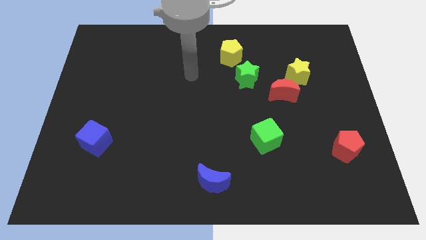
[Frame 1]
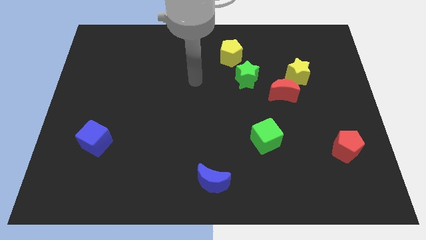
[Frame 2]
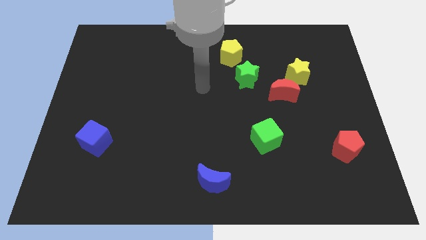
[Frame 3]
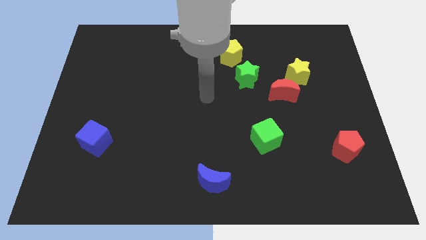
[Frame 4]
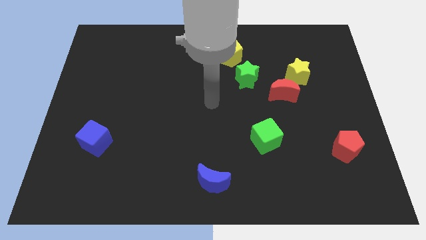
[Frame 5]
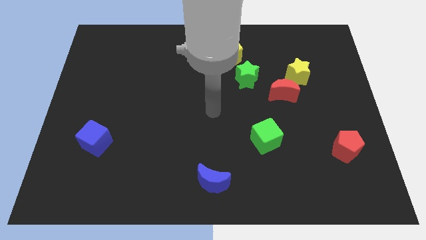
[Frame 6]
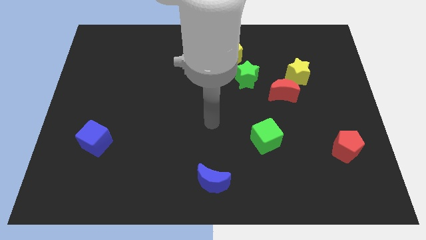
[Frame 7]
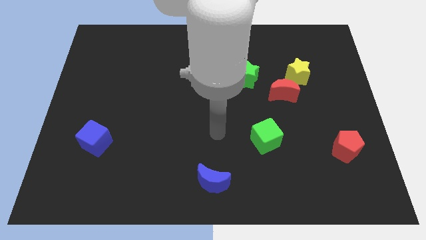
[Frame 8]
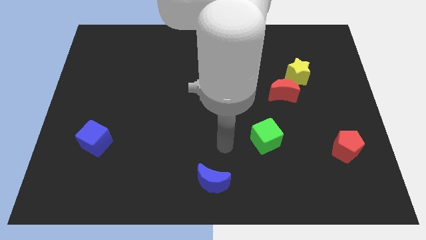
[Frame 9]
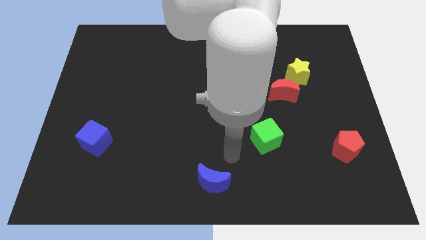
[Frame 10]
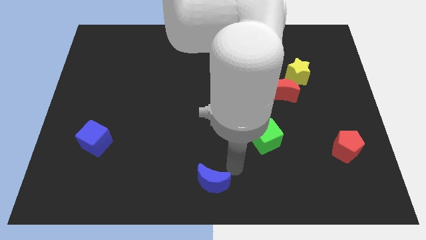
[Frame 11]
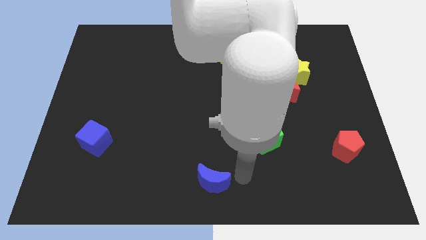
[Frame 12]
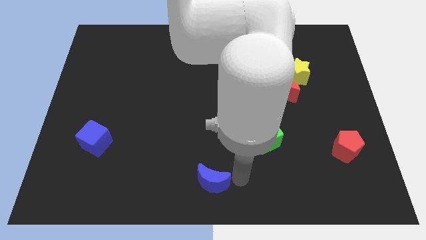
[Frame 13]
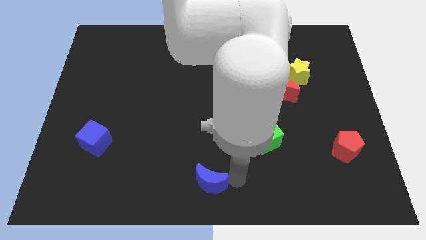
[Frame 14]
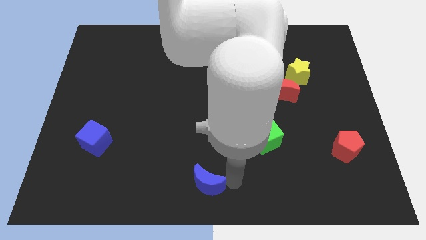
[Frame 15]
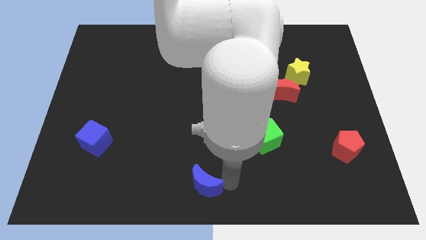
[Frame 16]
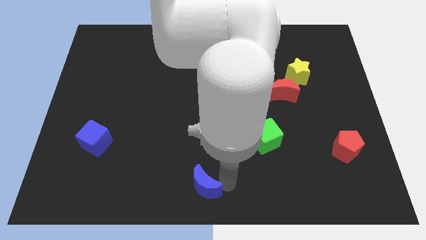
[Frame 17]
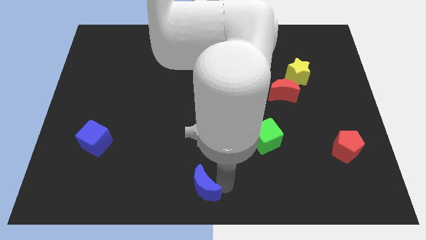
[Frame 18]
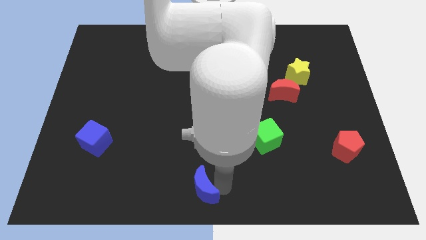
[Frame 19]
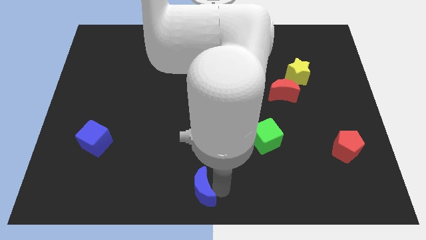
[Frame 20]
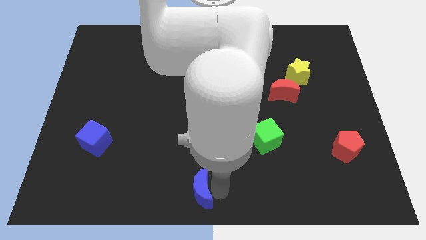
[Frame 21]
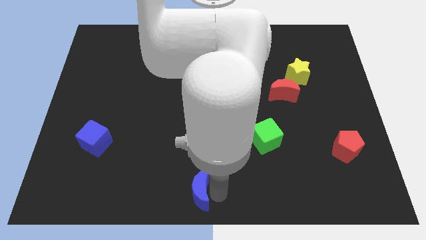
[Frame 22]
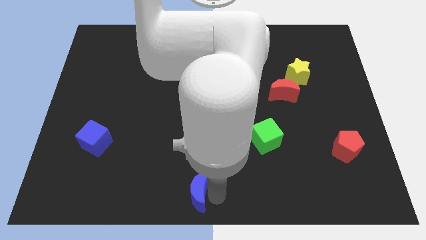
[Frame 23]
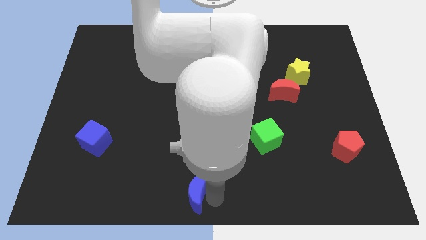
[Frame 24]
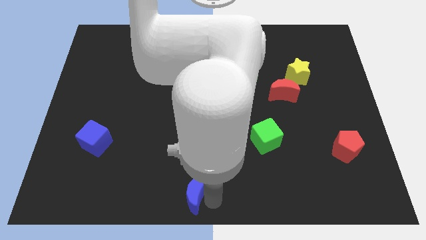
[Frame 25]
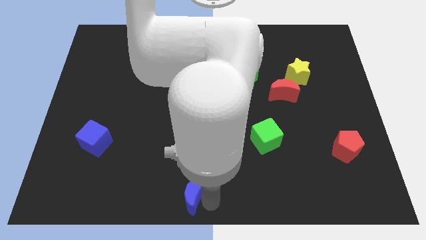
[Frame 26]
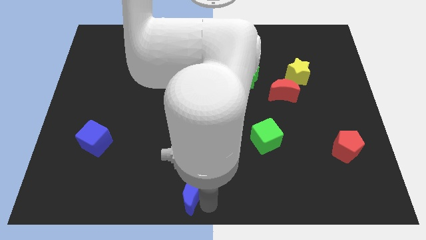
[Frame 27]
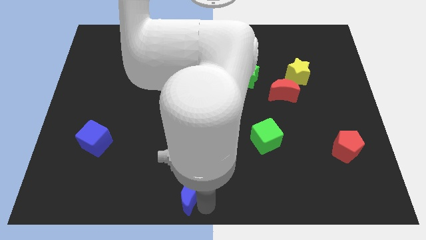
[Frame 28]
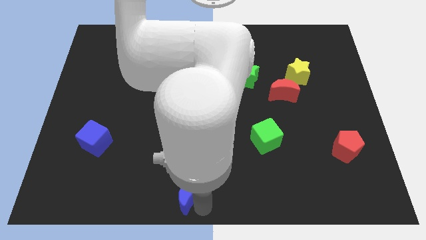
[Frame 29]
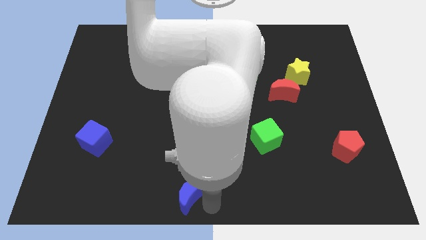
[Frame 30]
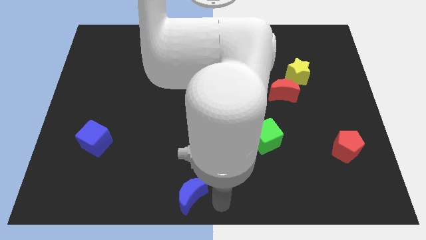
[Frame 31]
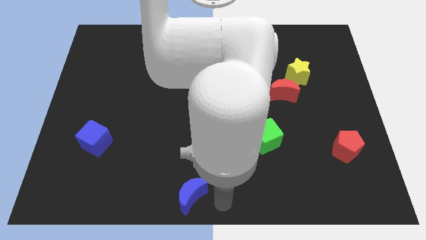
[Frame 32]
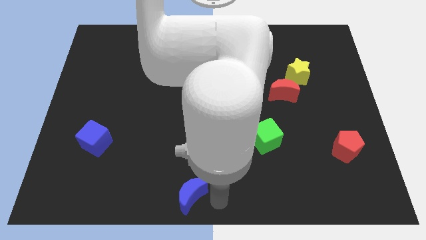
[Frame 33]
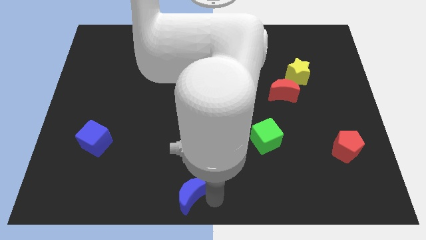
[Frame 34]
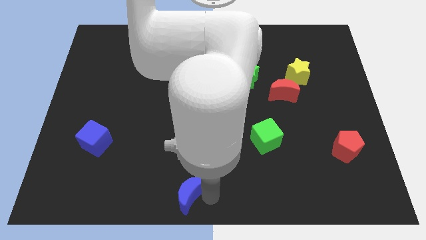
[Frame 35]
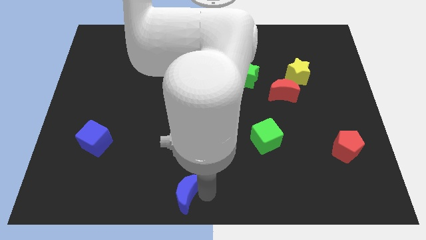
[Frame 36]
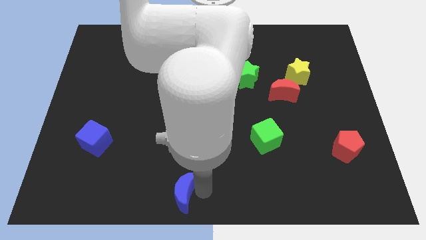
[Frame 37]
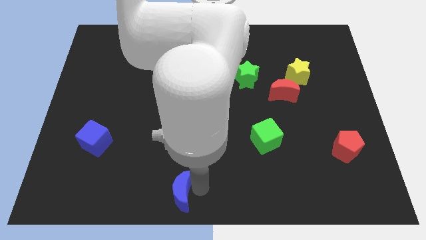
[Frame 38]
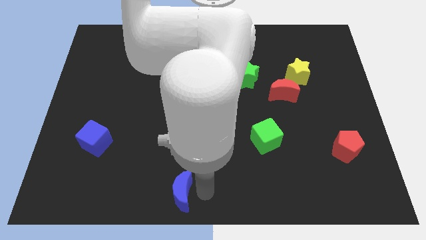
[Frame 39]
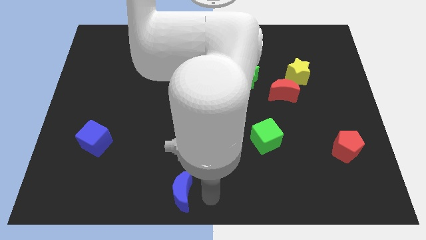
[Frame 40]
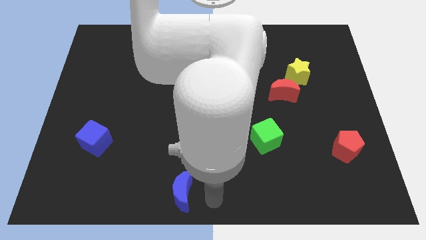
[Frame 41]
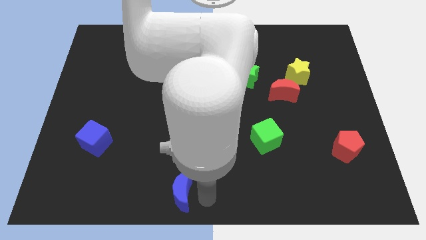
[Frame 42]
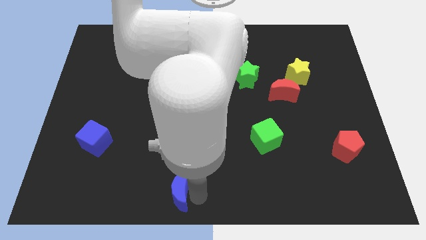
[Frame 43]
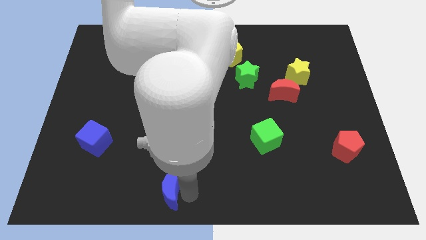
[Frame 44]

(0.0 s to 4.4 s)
slightly push the blue moon to the left

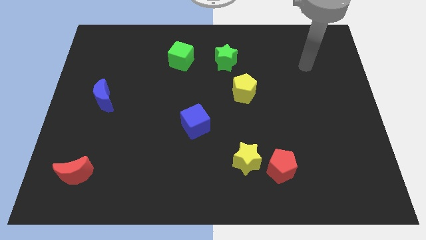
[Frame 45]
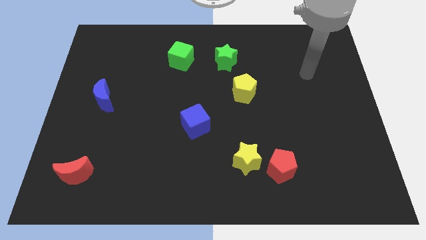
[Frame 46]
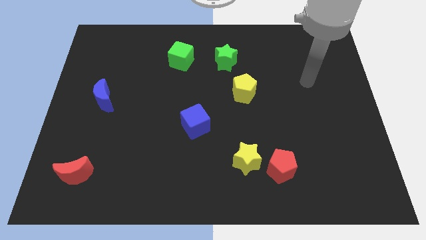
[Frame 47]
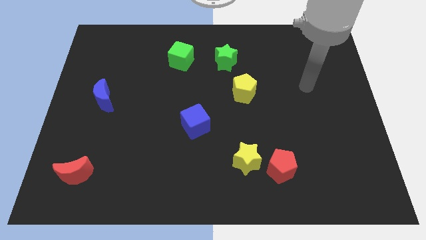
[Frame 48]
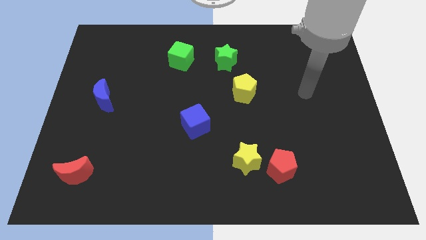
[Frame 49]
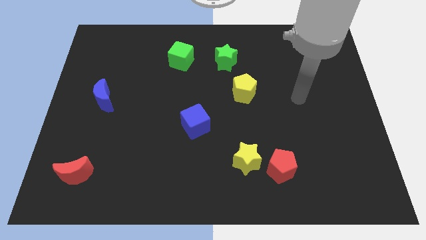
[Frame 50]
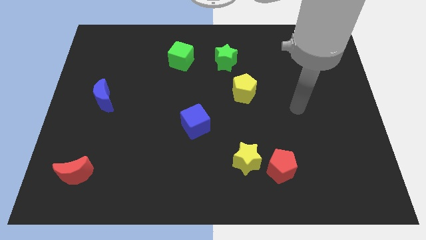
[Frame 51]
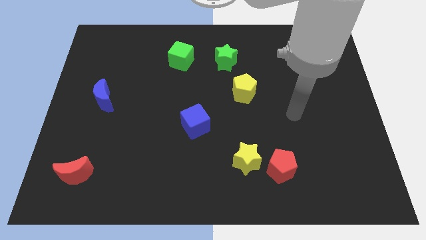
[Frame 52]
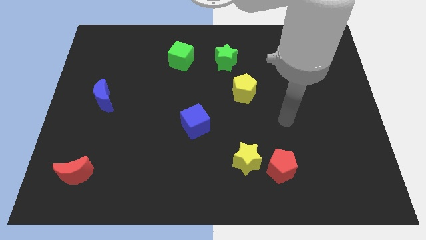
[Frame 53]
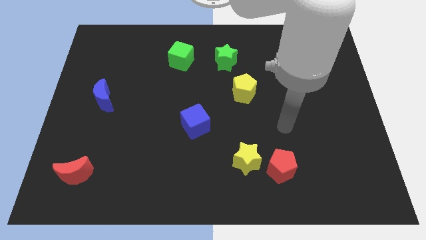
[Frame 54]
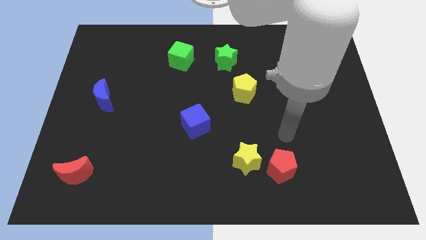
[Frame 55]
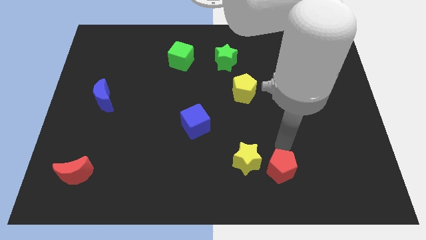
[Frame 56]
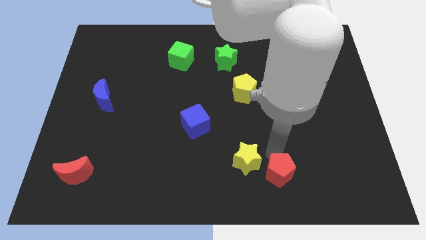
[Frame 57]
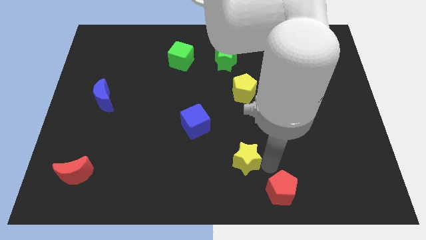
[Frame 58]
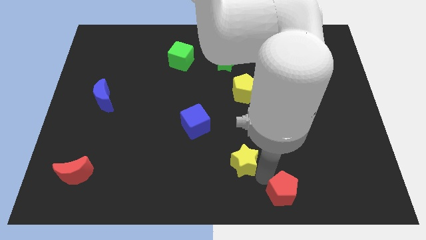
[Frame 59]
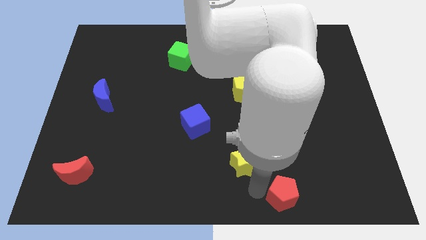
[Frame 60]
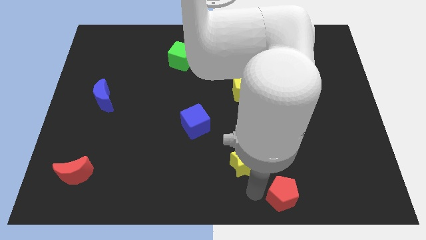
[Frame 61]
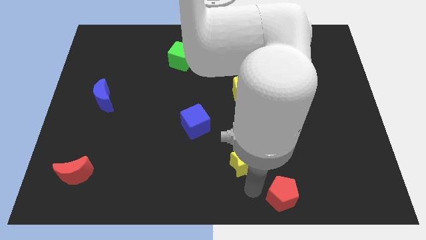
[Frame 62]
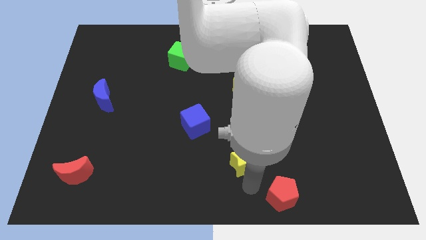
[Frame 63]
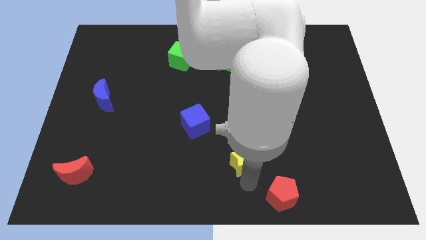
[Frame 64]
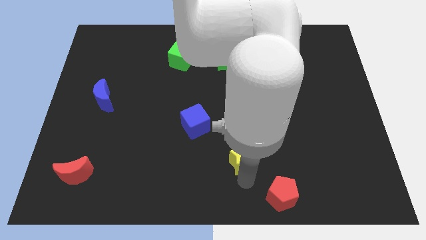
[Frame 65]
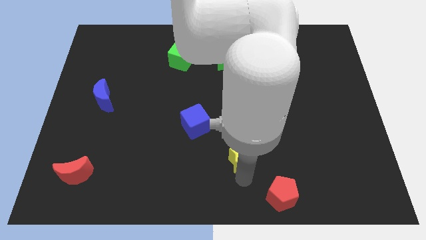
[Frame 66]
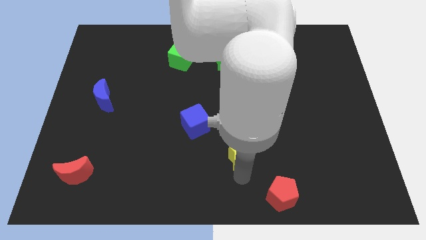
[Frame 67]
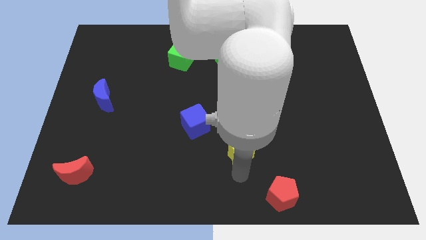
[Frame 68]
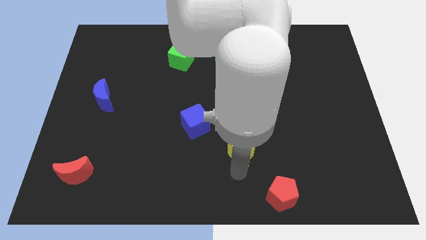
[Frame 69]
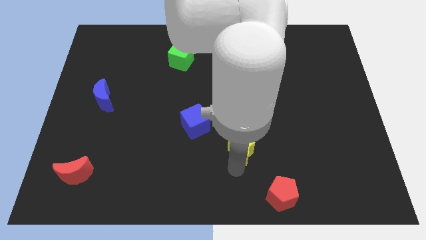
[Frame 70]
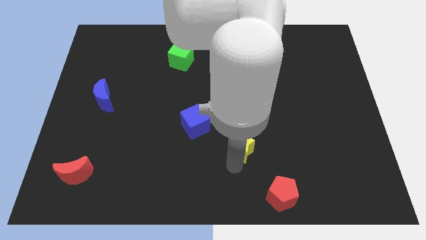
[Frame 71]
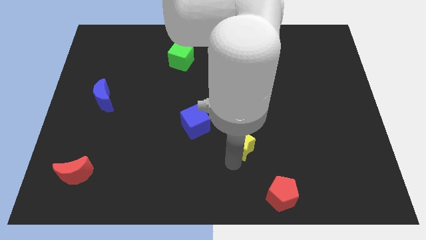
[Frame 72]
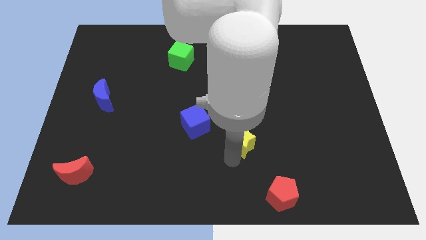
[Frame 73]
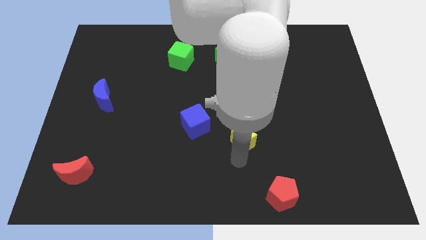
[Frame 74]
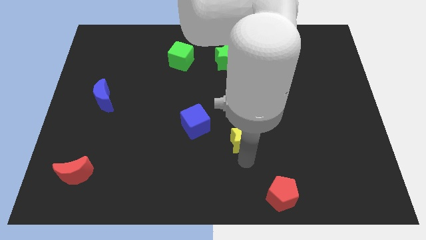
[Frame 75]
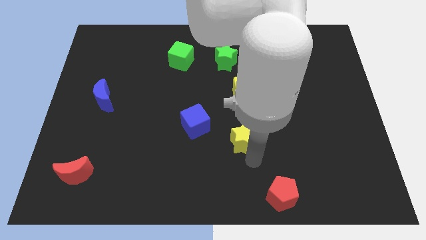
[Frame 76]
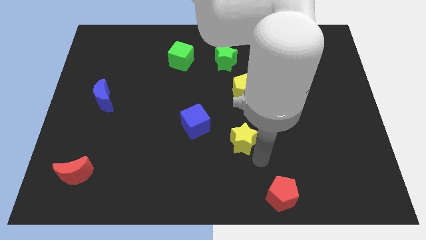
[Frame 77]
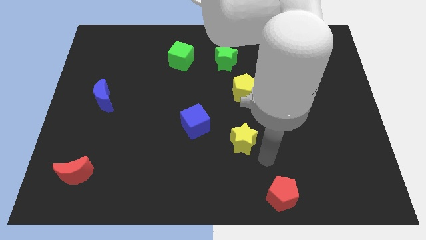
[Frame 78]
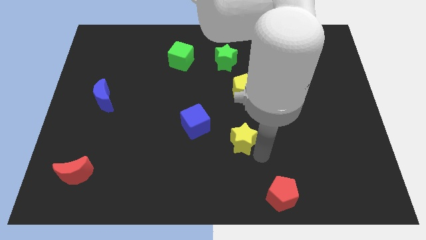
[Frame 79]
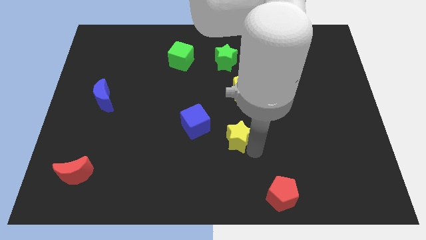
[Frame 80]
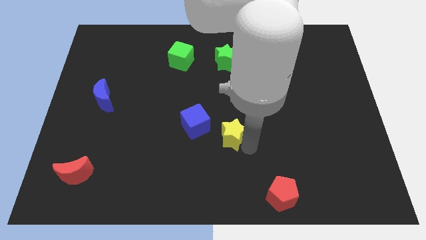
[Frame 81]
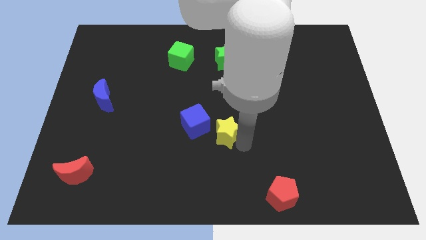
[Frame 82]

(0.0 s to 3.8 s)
slightly slide the yellow star upwards and left
